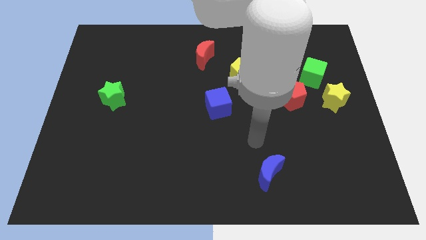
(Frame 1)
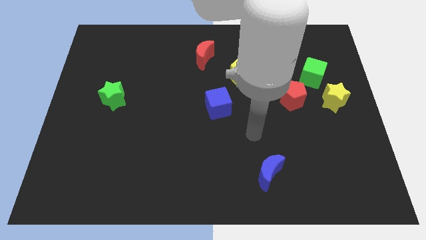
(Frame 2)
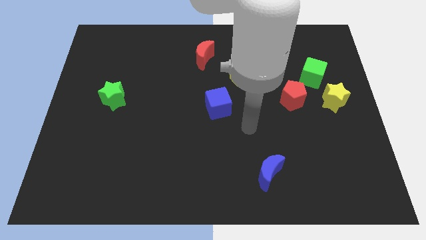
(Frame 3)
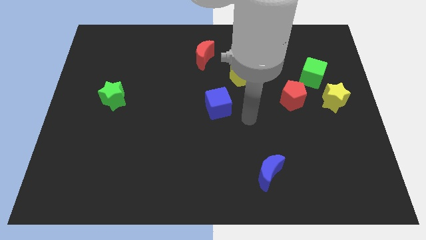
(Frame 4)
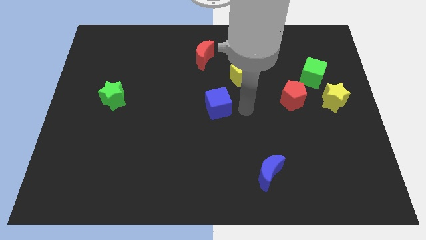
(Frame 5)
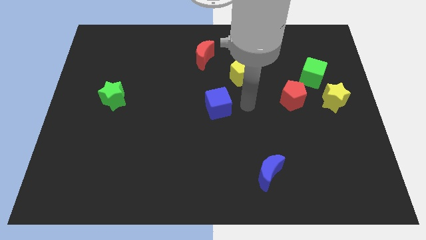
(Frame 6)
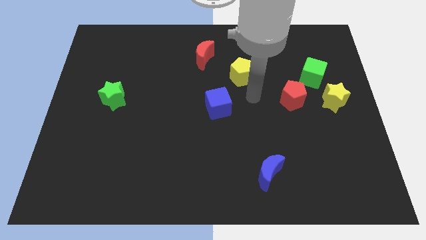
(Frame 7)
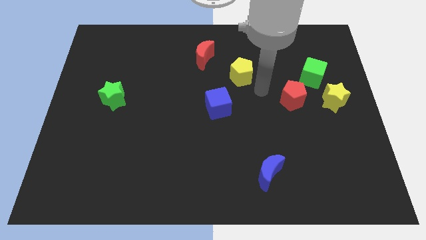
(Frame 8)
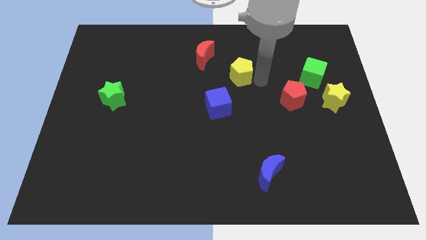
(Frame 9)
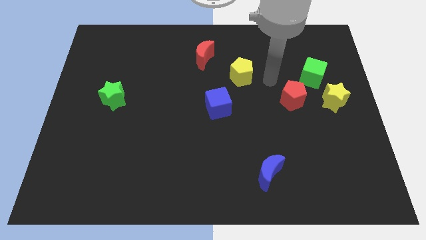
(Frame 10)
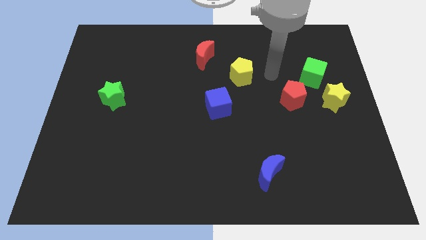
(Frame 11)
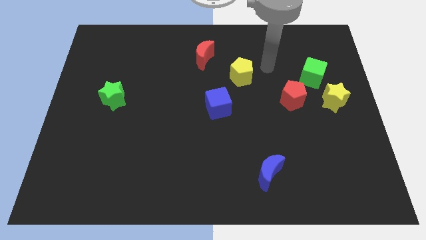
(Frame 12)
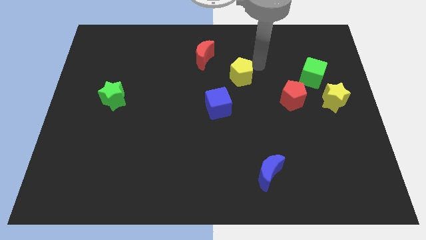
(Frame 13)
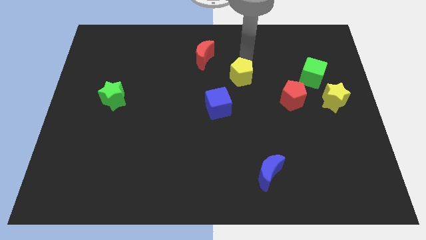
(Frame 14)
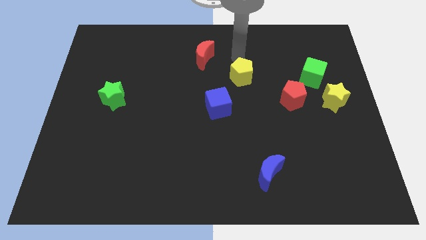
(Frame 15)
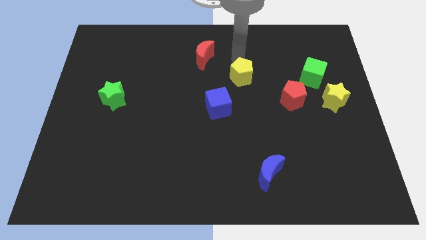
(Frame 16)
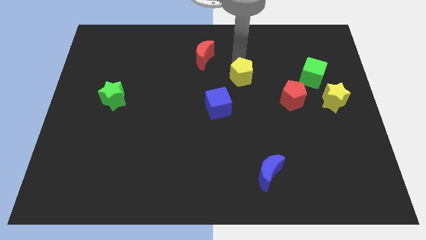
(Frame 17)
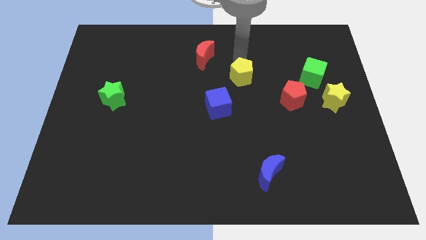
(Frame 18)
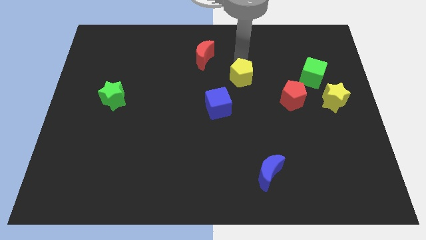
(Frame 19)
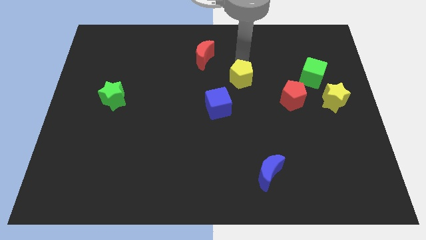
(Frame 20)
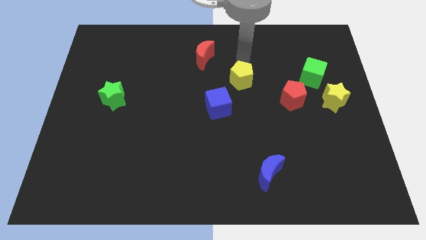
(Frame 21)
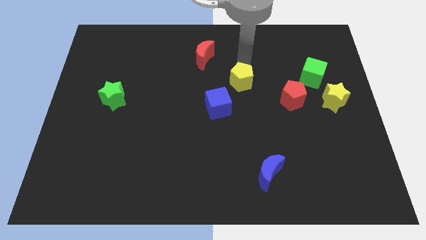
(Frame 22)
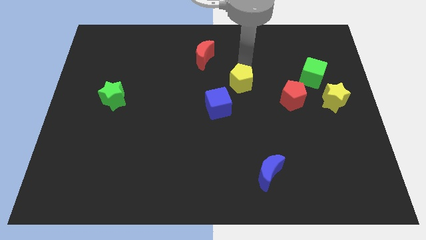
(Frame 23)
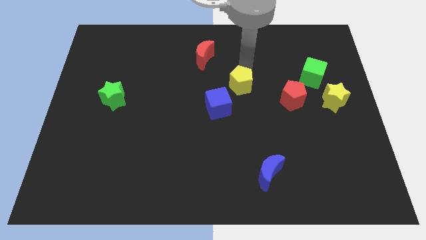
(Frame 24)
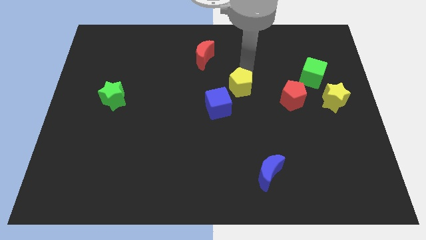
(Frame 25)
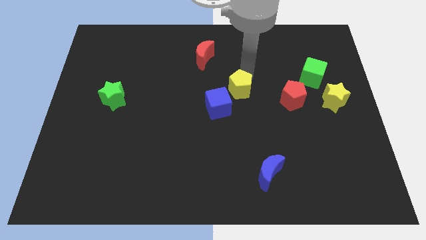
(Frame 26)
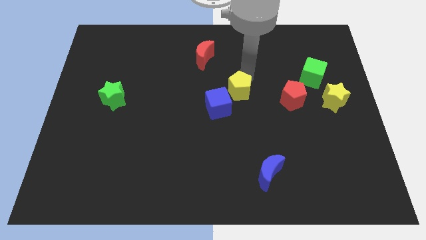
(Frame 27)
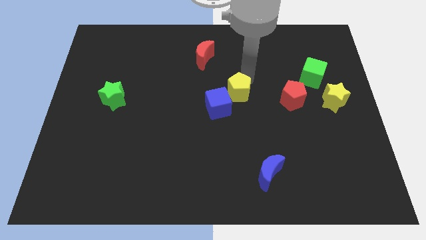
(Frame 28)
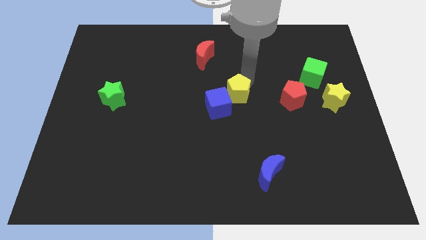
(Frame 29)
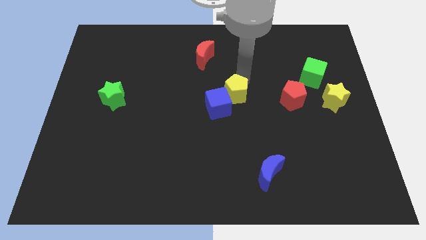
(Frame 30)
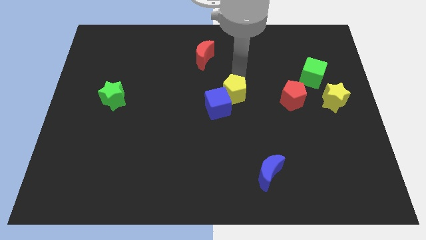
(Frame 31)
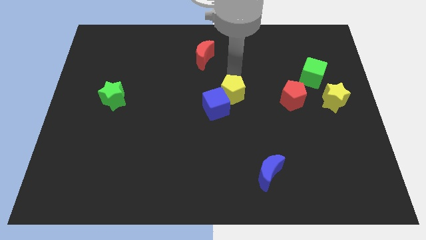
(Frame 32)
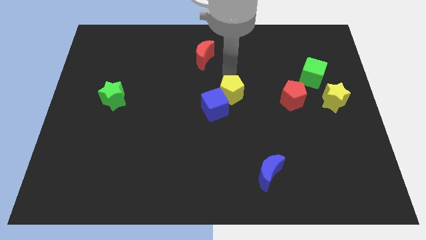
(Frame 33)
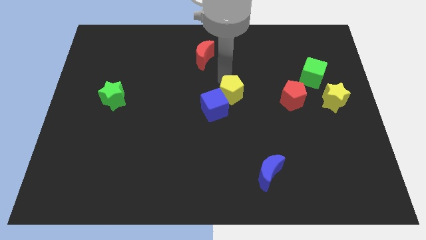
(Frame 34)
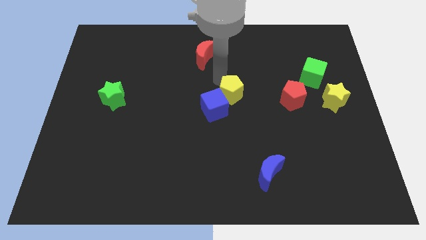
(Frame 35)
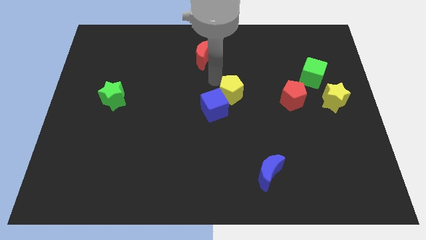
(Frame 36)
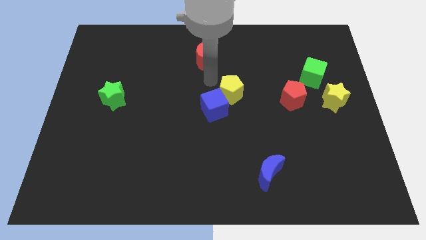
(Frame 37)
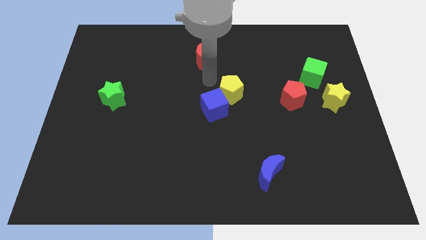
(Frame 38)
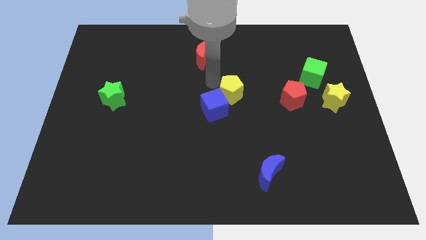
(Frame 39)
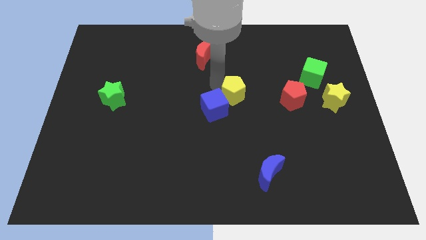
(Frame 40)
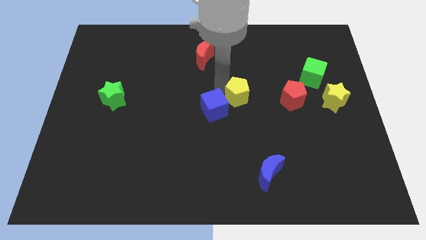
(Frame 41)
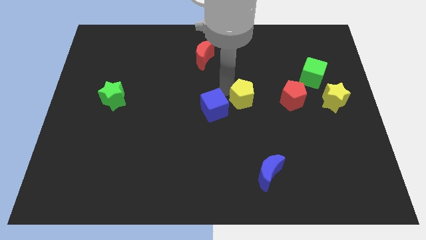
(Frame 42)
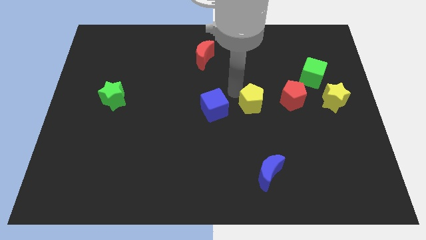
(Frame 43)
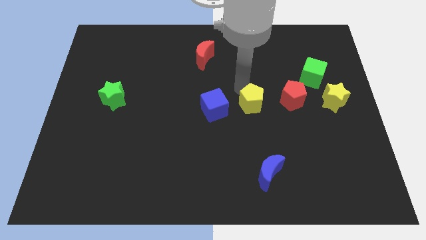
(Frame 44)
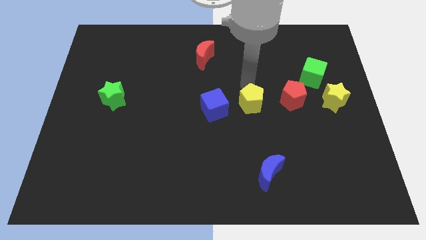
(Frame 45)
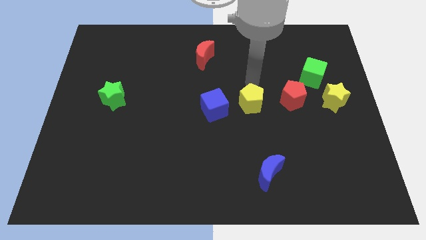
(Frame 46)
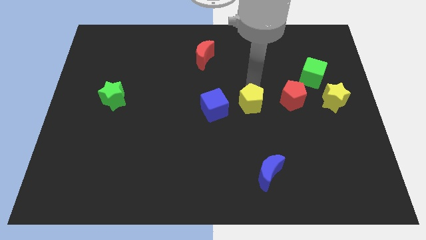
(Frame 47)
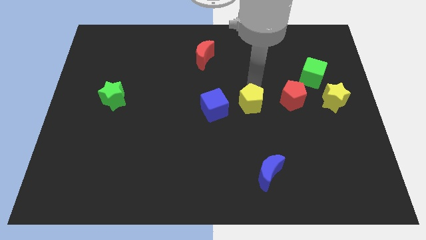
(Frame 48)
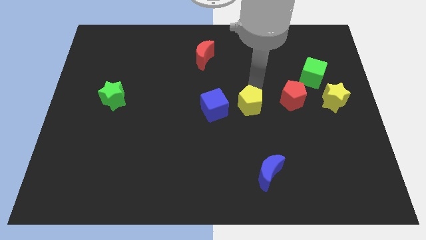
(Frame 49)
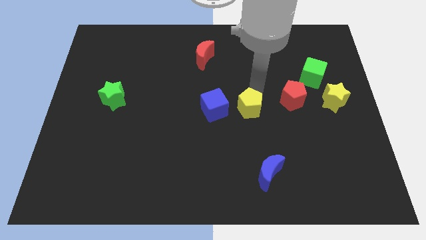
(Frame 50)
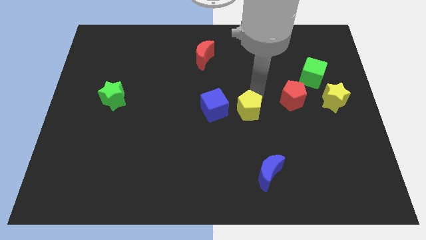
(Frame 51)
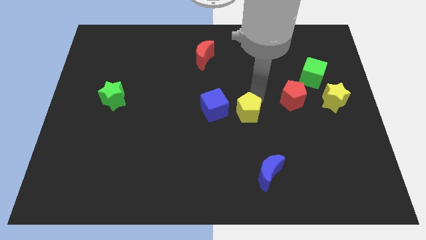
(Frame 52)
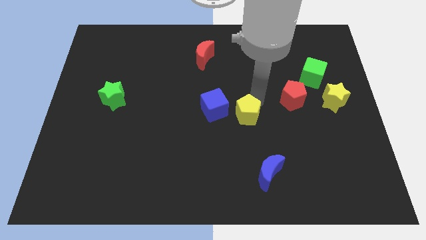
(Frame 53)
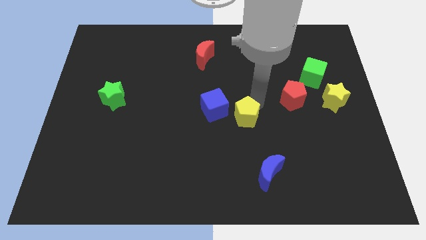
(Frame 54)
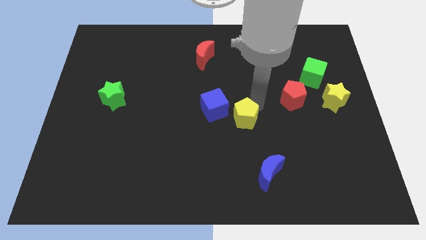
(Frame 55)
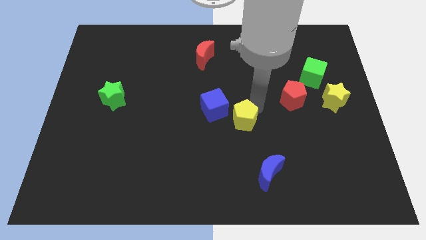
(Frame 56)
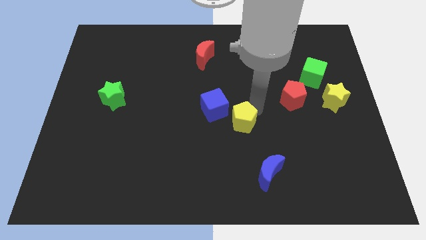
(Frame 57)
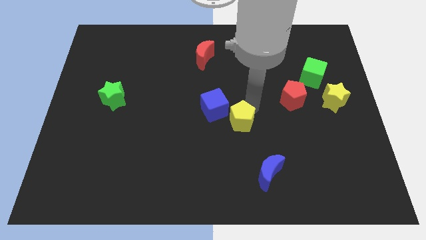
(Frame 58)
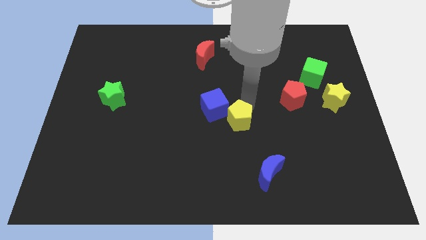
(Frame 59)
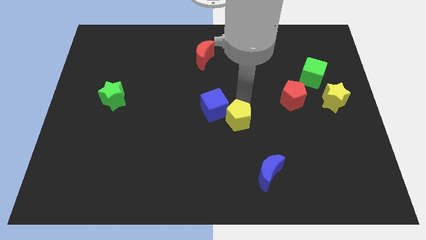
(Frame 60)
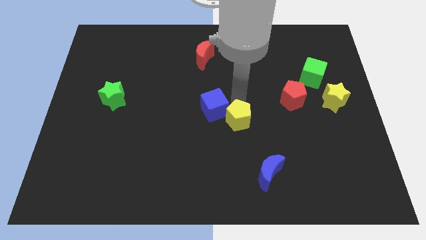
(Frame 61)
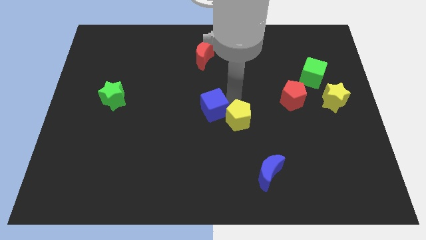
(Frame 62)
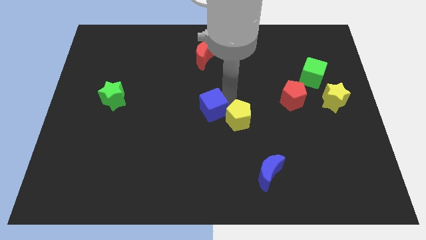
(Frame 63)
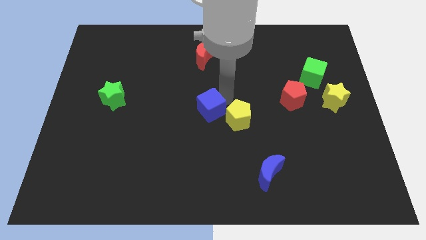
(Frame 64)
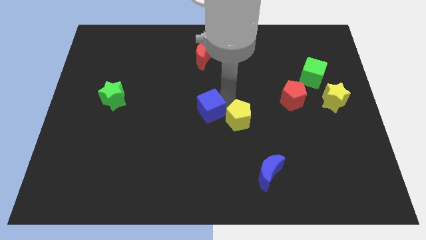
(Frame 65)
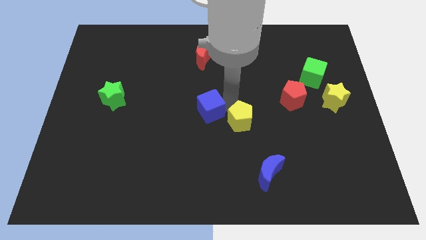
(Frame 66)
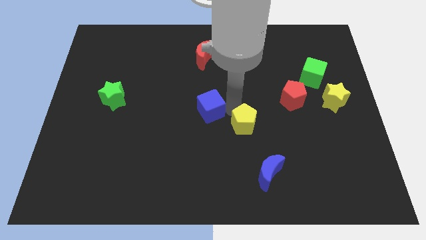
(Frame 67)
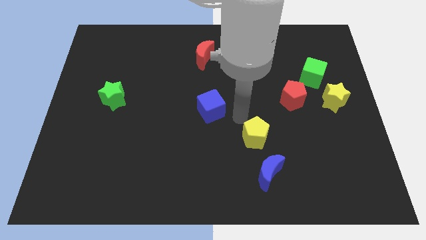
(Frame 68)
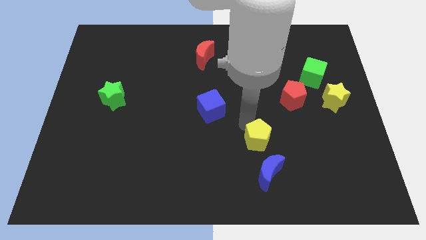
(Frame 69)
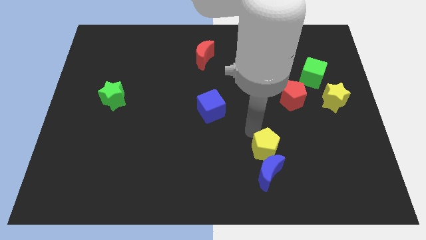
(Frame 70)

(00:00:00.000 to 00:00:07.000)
put the yellow pentagon close to the blue moon

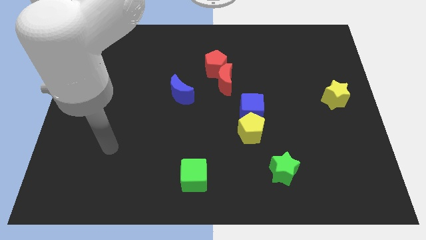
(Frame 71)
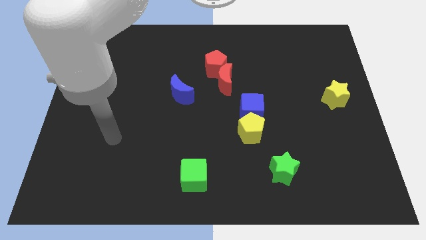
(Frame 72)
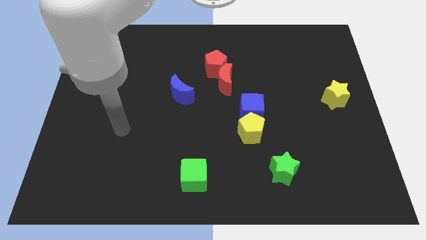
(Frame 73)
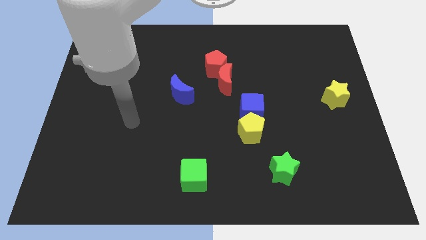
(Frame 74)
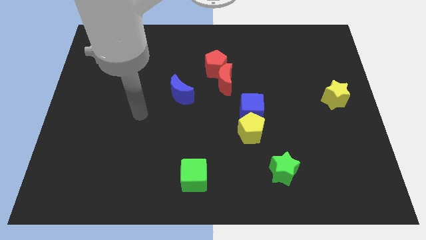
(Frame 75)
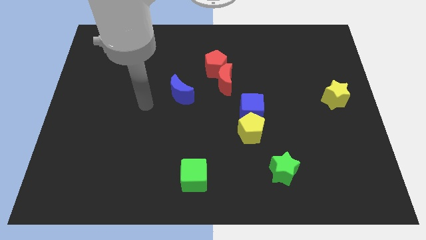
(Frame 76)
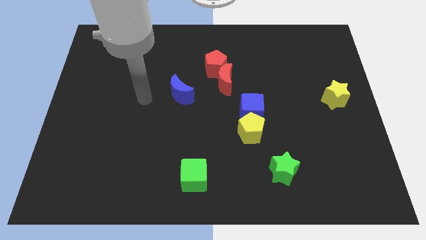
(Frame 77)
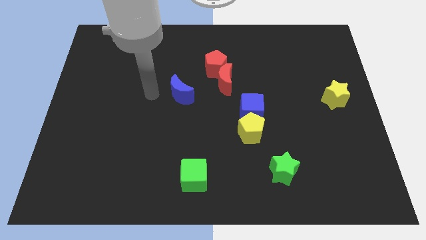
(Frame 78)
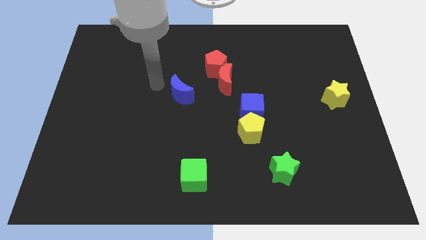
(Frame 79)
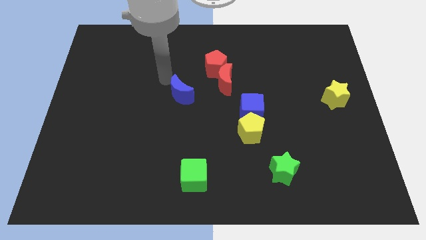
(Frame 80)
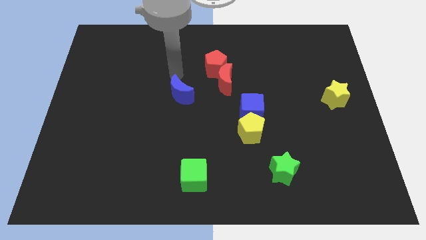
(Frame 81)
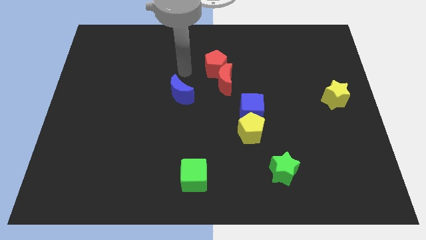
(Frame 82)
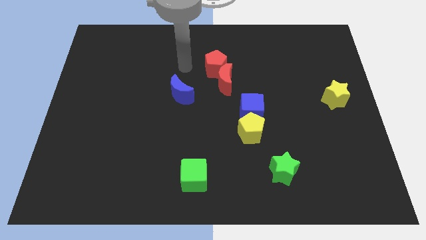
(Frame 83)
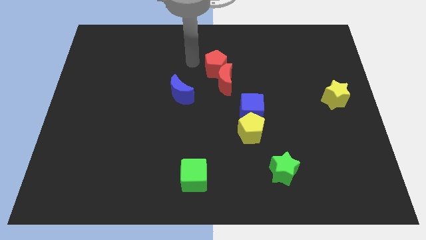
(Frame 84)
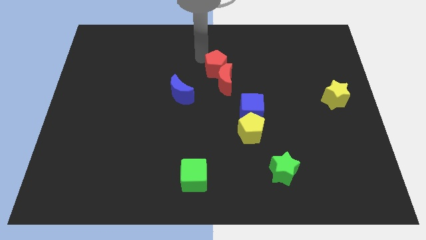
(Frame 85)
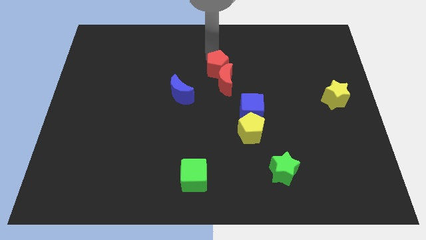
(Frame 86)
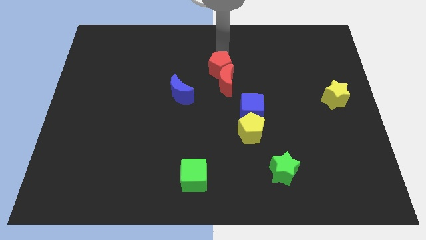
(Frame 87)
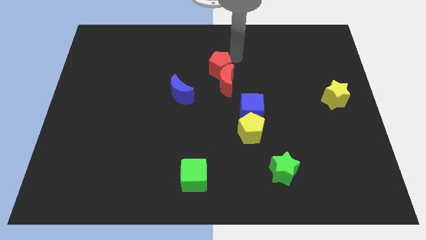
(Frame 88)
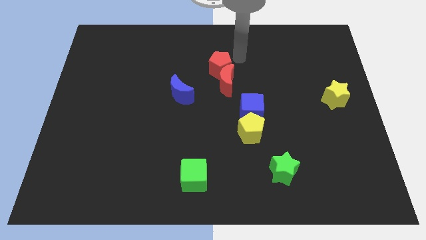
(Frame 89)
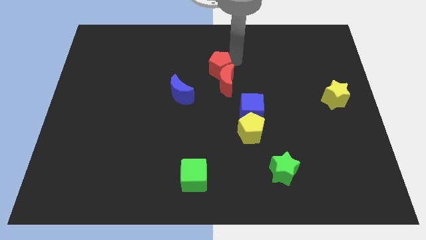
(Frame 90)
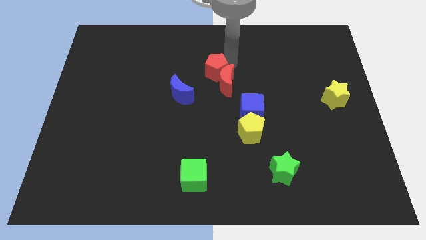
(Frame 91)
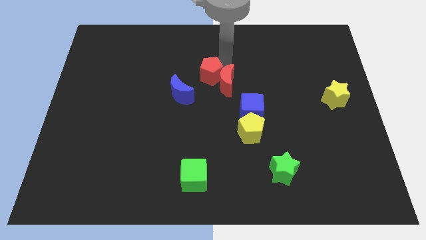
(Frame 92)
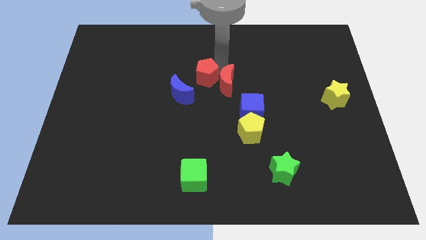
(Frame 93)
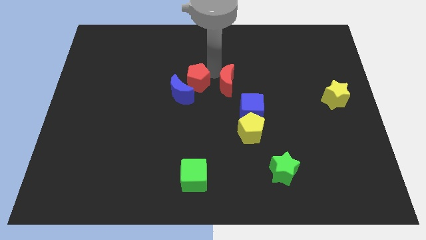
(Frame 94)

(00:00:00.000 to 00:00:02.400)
slide the red pentagon to the blue moon
